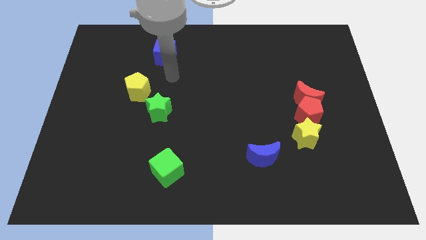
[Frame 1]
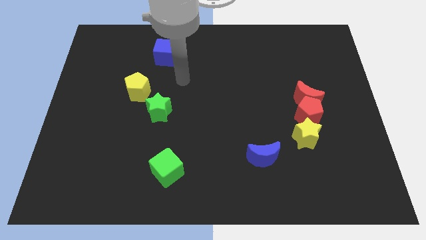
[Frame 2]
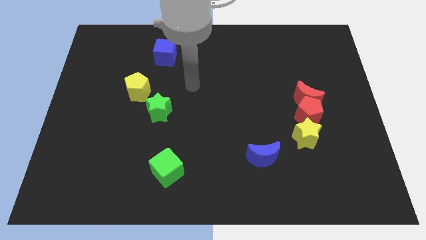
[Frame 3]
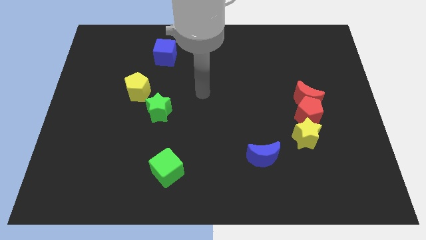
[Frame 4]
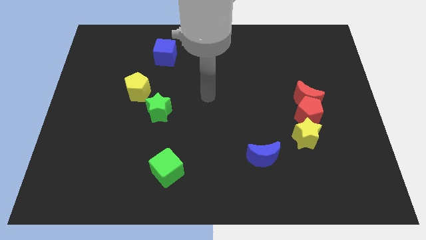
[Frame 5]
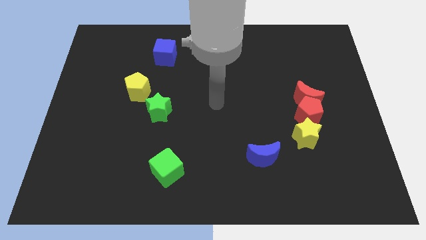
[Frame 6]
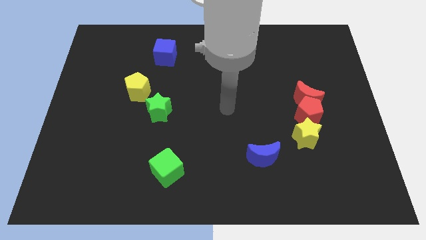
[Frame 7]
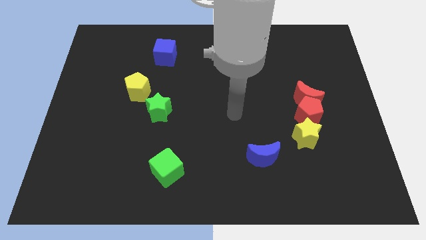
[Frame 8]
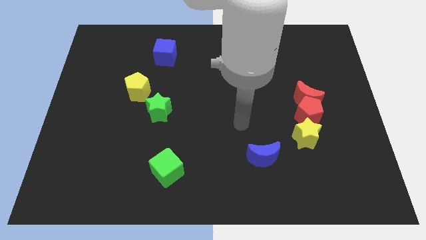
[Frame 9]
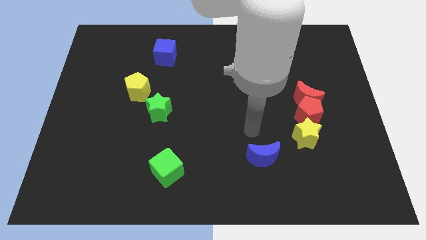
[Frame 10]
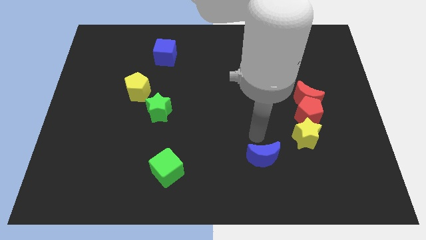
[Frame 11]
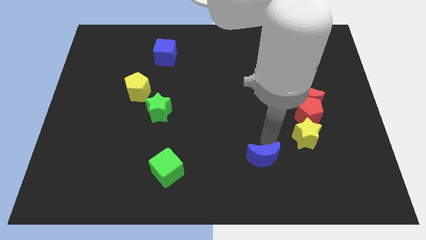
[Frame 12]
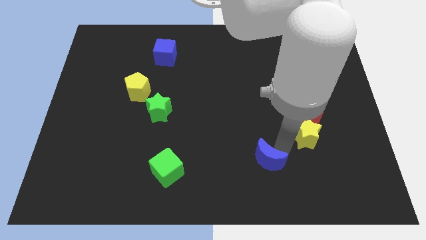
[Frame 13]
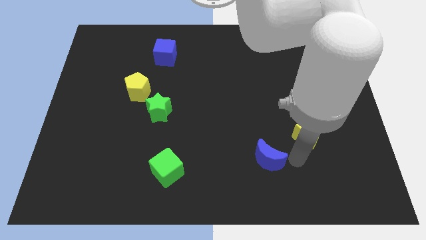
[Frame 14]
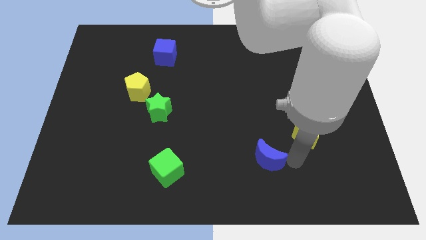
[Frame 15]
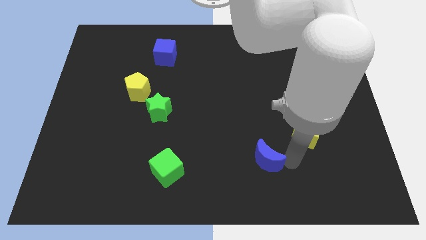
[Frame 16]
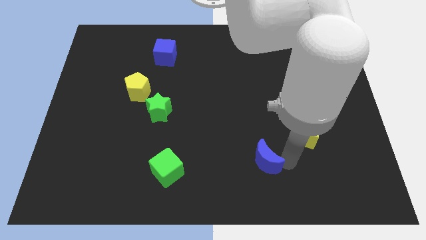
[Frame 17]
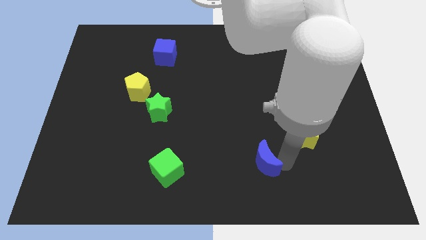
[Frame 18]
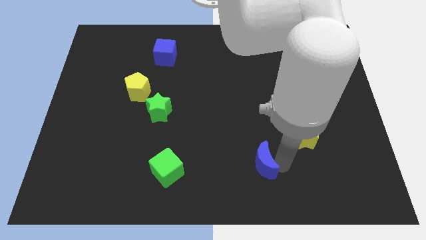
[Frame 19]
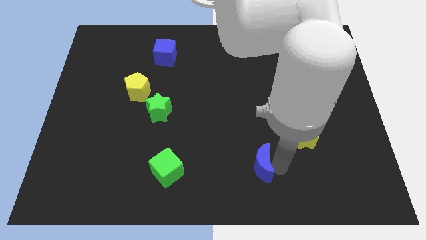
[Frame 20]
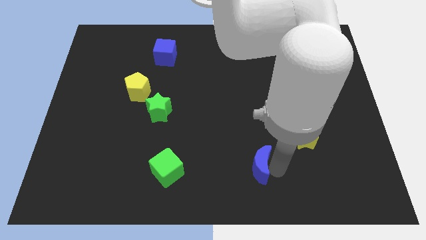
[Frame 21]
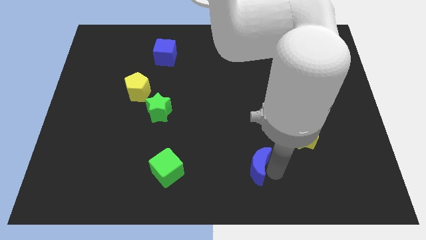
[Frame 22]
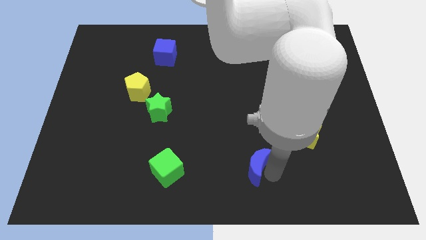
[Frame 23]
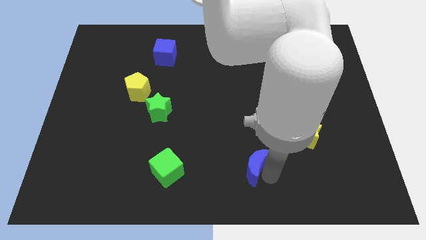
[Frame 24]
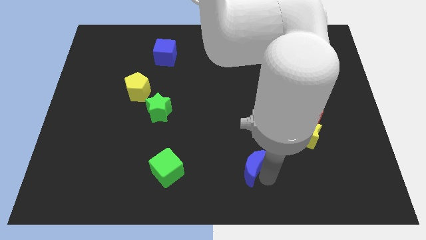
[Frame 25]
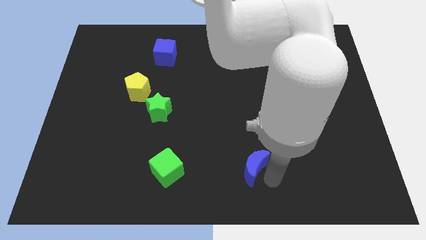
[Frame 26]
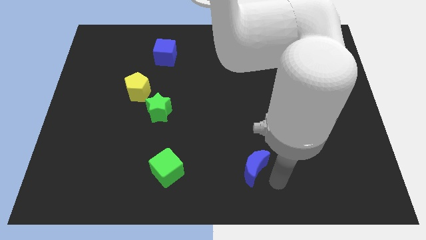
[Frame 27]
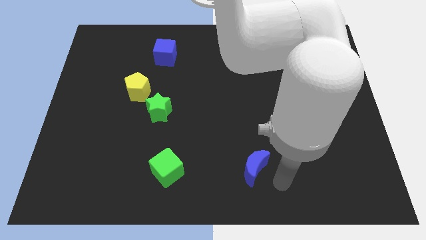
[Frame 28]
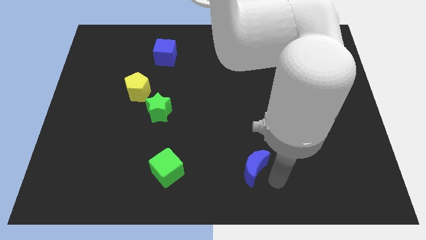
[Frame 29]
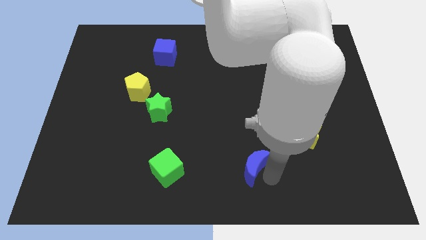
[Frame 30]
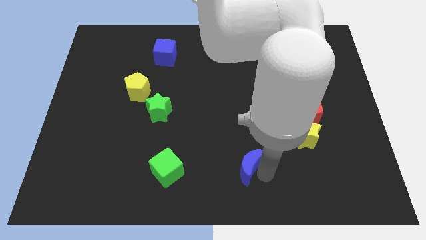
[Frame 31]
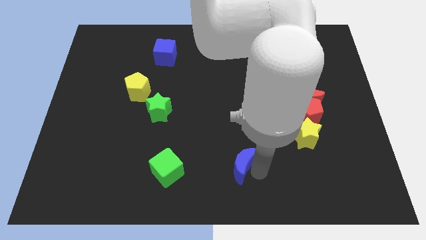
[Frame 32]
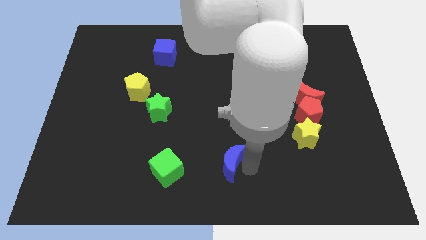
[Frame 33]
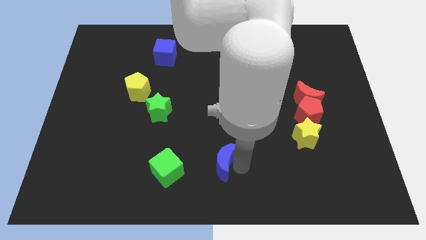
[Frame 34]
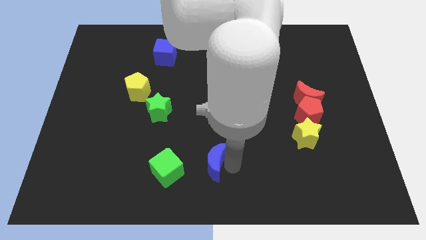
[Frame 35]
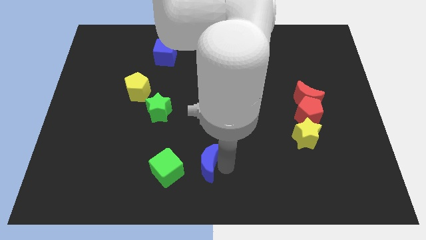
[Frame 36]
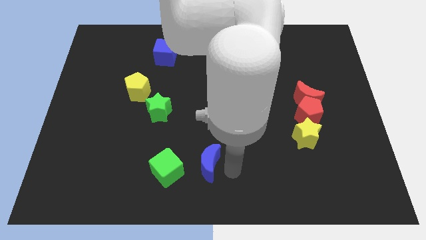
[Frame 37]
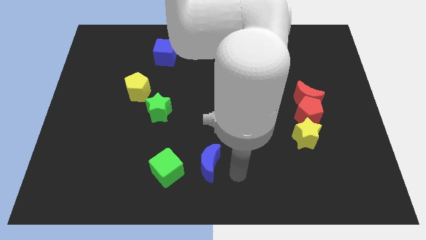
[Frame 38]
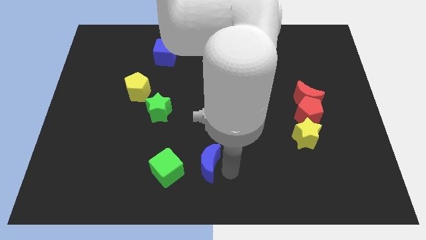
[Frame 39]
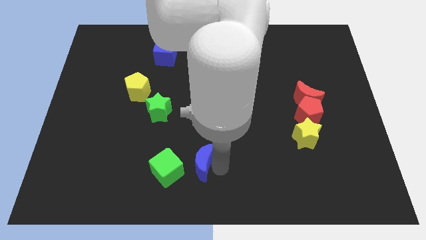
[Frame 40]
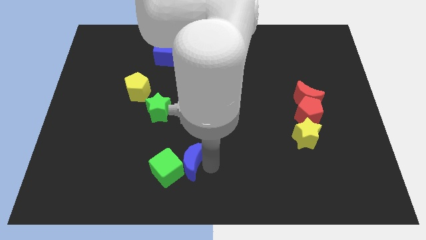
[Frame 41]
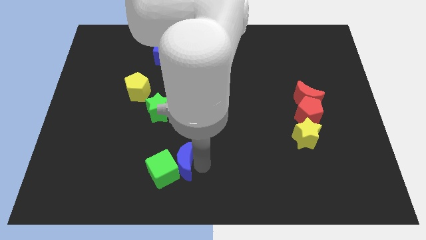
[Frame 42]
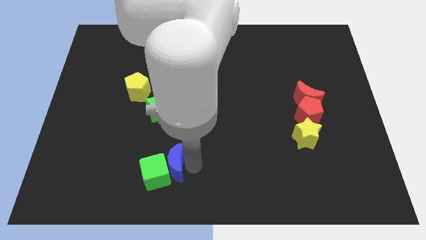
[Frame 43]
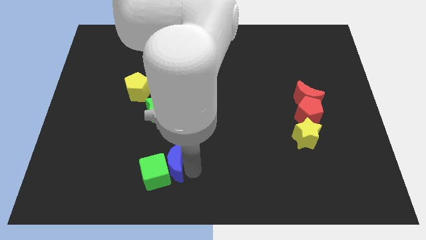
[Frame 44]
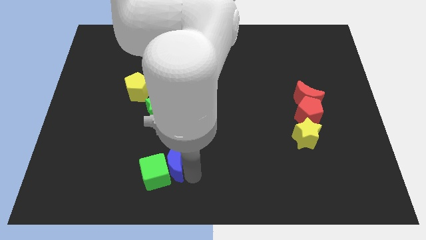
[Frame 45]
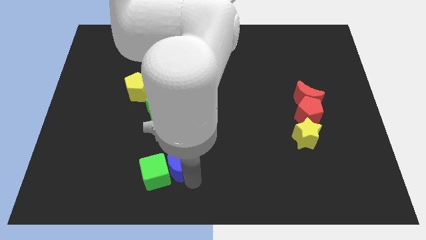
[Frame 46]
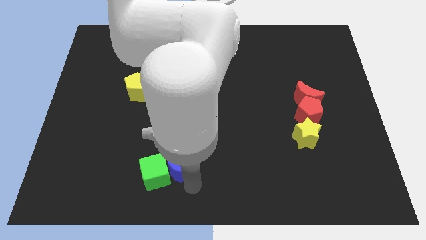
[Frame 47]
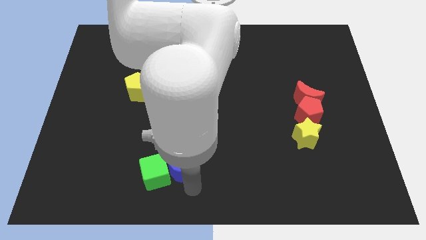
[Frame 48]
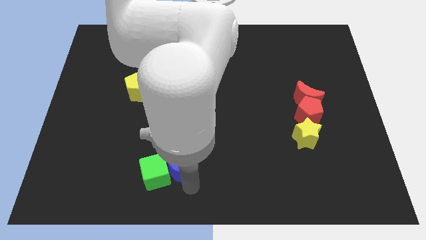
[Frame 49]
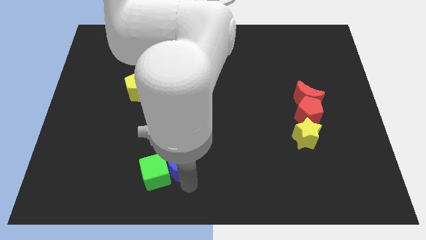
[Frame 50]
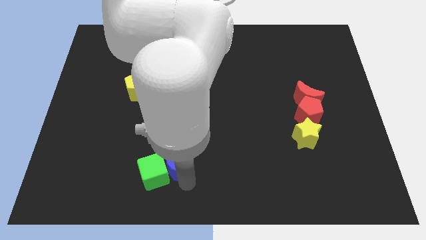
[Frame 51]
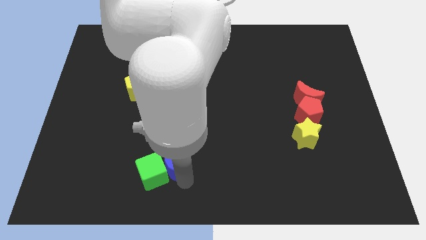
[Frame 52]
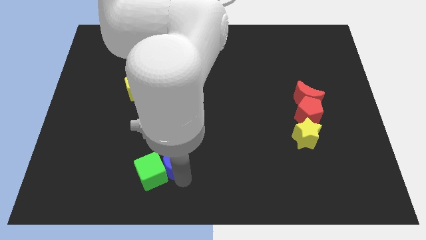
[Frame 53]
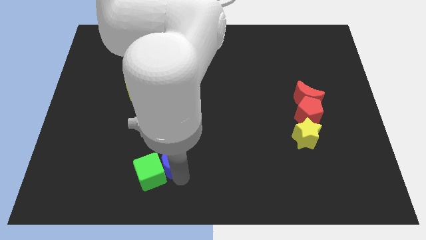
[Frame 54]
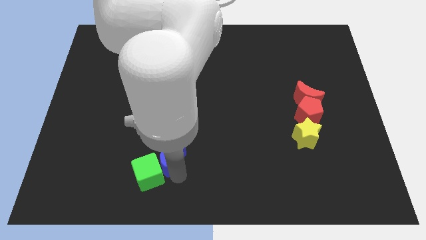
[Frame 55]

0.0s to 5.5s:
slide the blue moon to the left

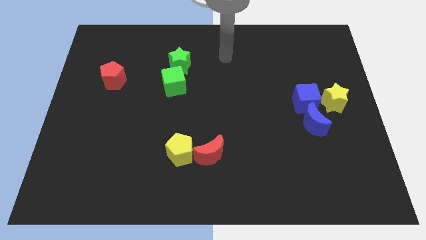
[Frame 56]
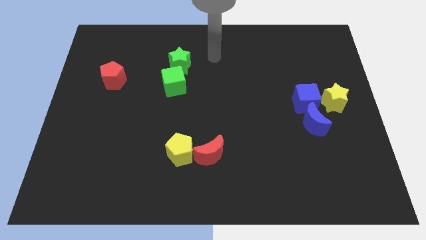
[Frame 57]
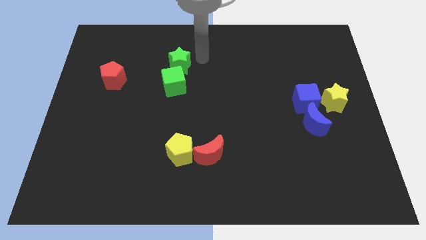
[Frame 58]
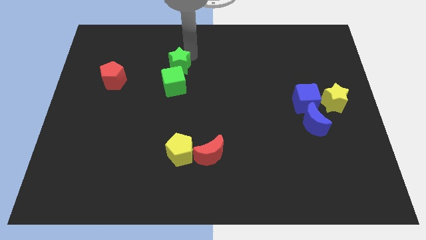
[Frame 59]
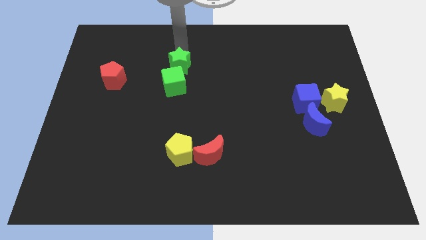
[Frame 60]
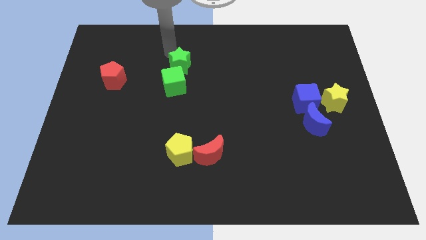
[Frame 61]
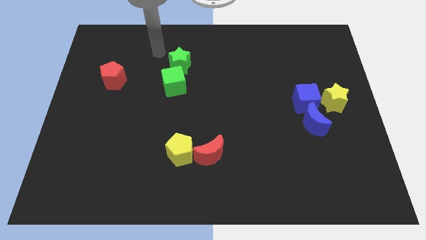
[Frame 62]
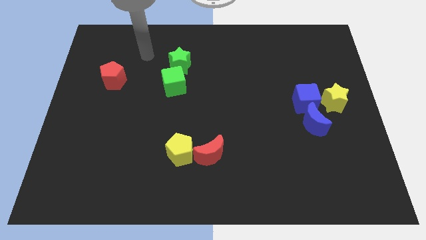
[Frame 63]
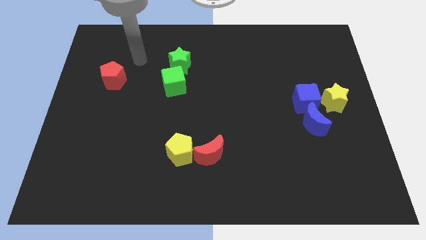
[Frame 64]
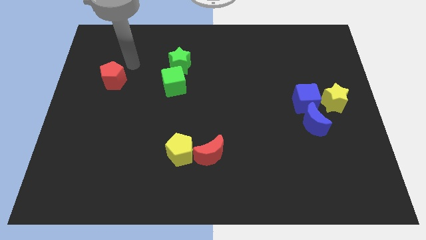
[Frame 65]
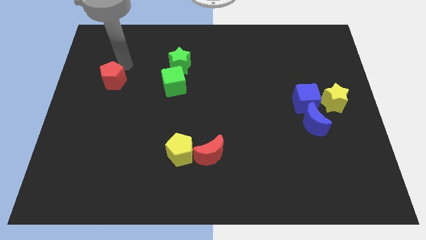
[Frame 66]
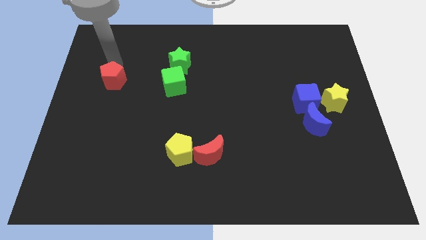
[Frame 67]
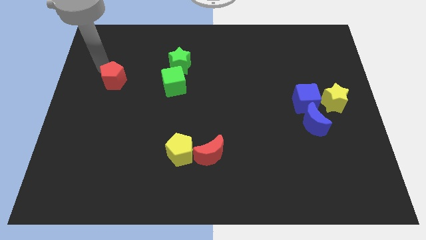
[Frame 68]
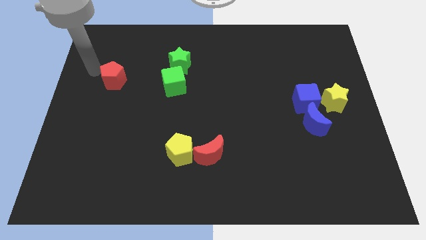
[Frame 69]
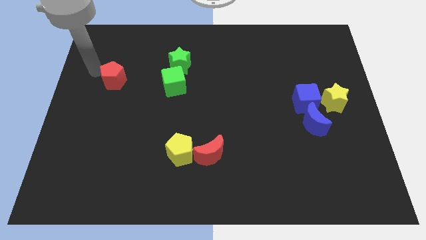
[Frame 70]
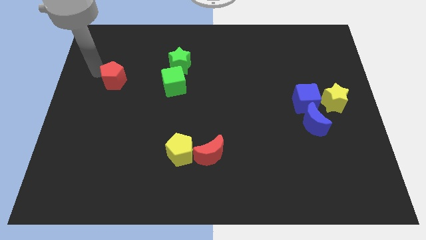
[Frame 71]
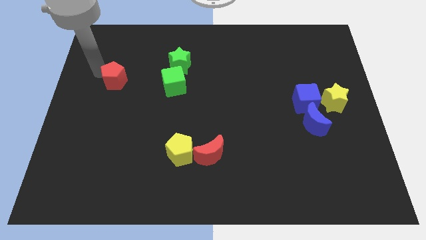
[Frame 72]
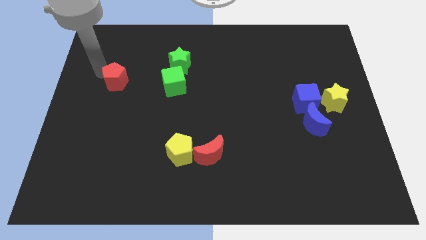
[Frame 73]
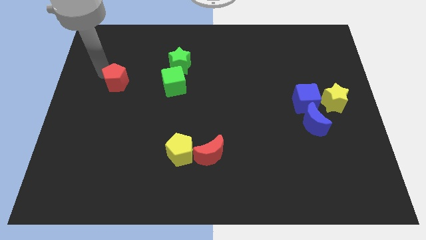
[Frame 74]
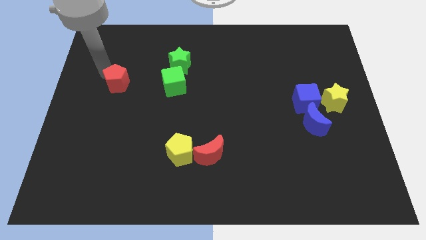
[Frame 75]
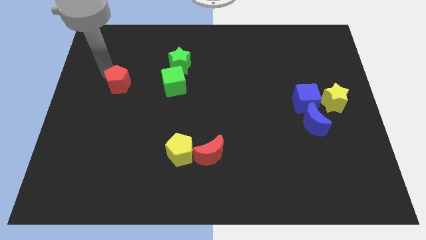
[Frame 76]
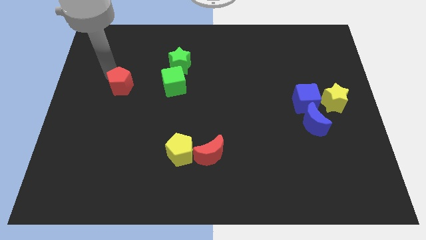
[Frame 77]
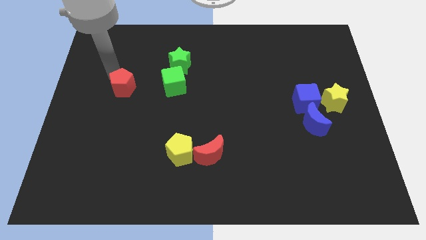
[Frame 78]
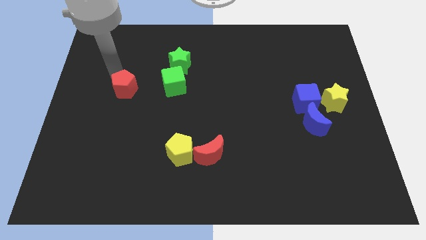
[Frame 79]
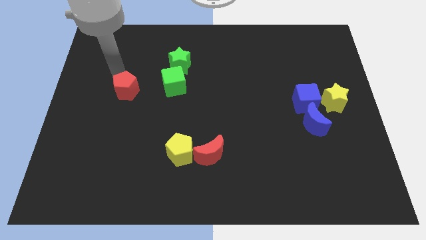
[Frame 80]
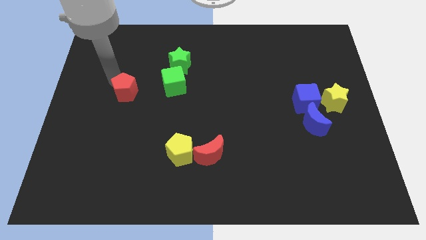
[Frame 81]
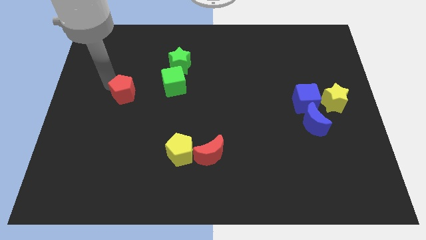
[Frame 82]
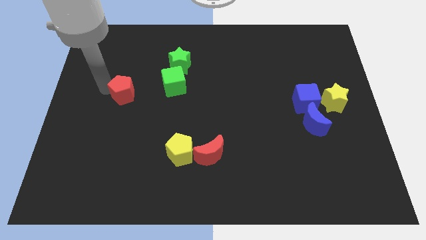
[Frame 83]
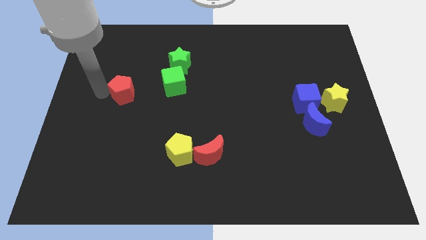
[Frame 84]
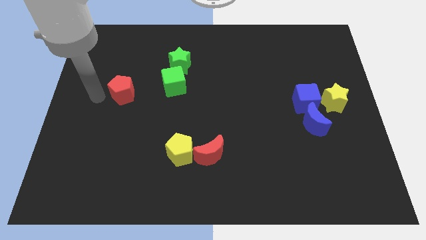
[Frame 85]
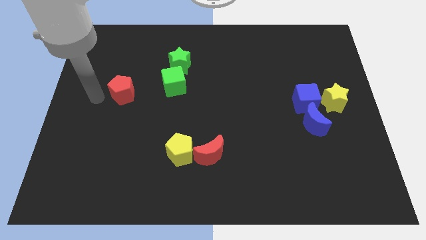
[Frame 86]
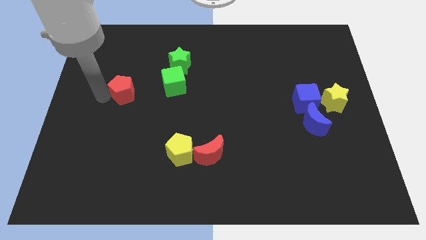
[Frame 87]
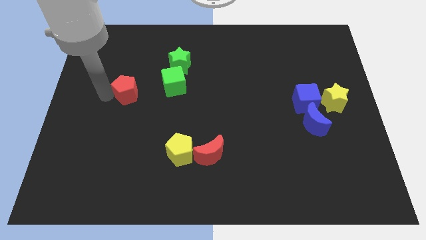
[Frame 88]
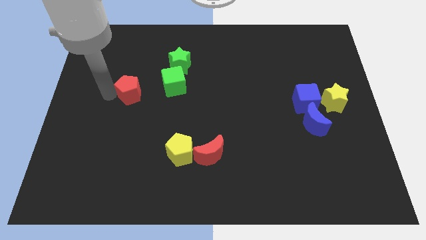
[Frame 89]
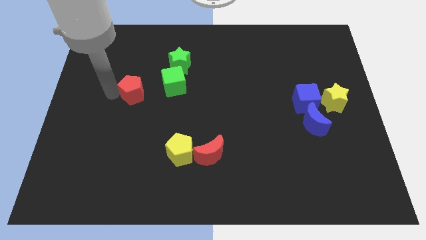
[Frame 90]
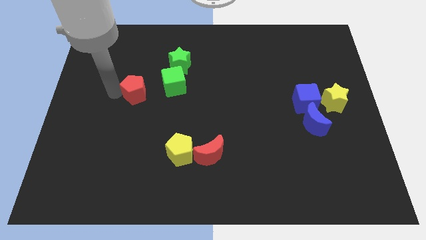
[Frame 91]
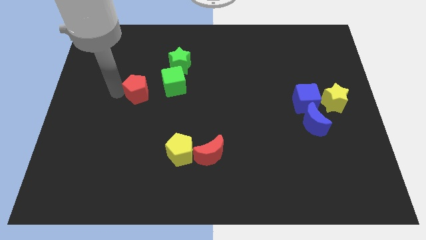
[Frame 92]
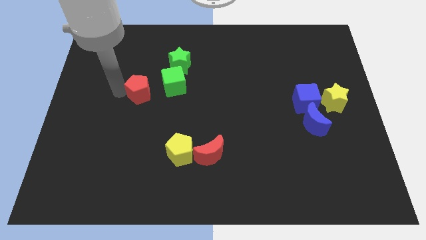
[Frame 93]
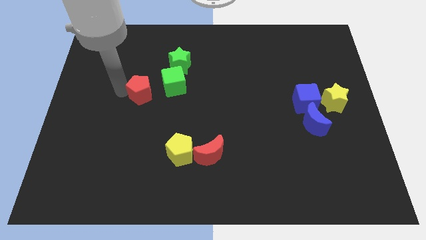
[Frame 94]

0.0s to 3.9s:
move the red pentagon slightly right
